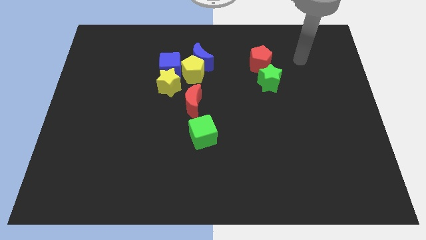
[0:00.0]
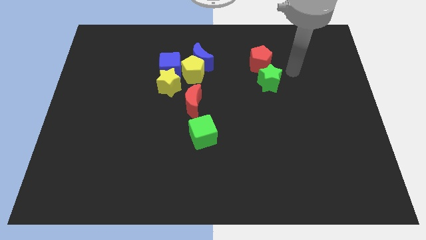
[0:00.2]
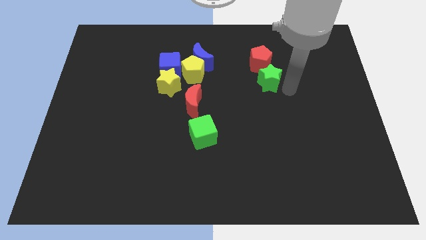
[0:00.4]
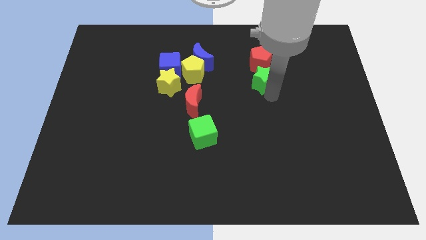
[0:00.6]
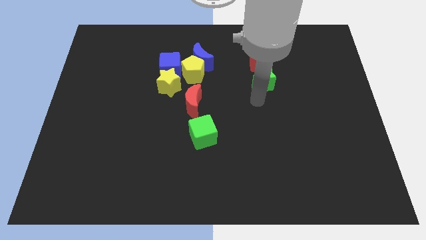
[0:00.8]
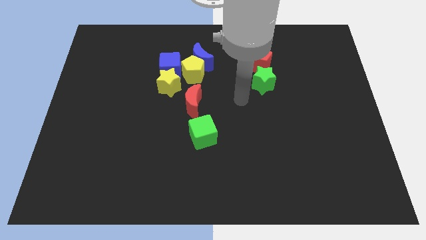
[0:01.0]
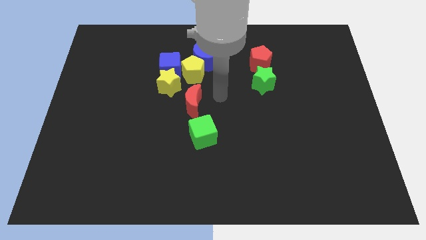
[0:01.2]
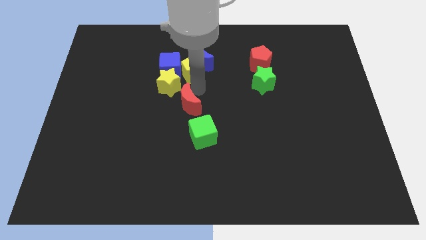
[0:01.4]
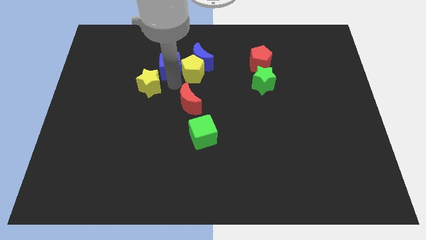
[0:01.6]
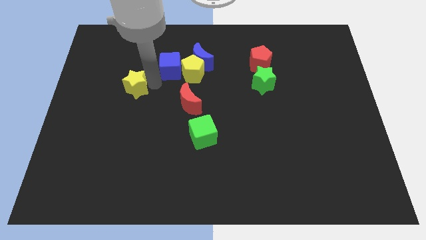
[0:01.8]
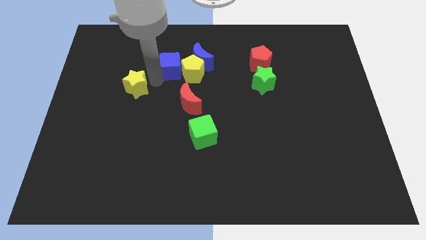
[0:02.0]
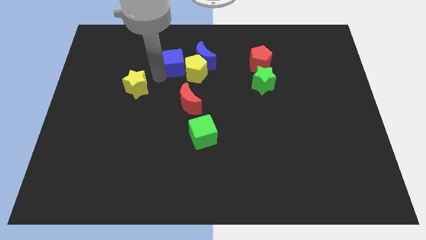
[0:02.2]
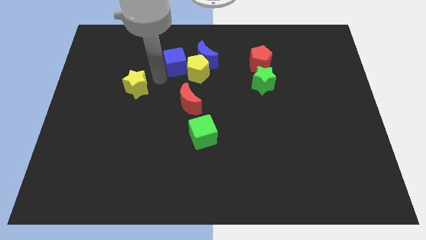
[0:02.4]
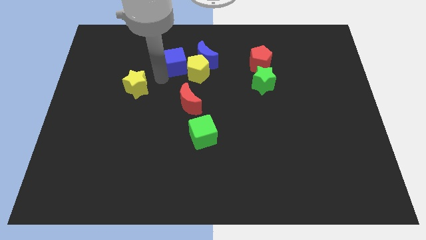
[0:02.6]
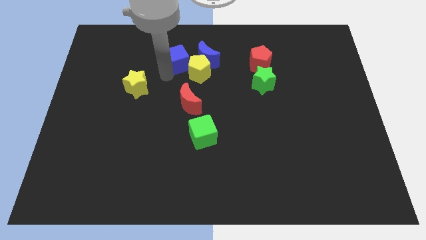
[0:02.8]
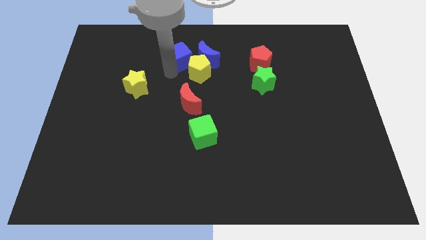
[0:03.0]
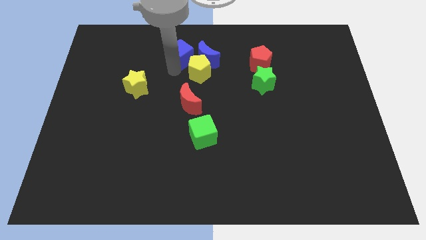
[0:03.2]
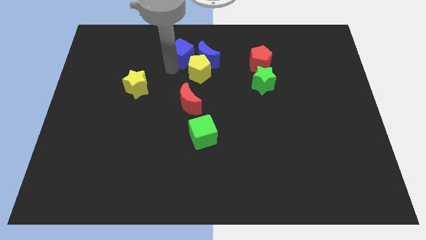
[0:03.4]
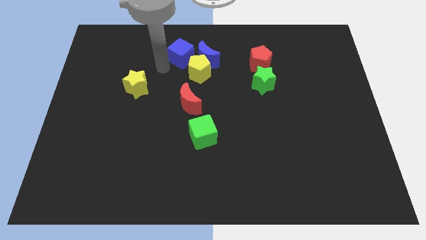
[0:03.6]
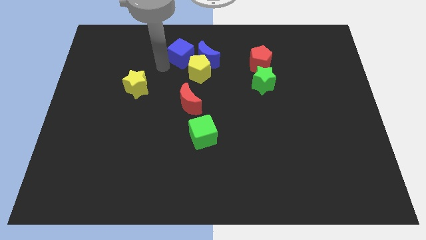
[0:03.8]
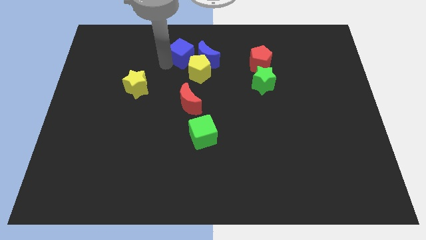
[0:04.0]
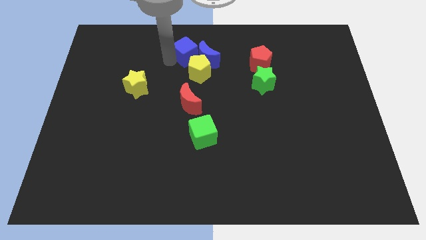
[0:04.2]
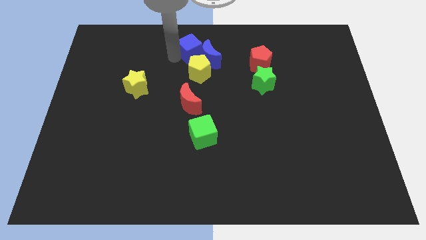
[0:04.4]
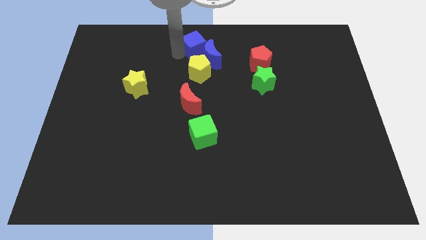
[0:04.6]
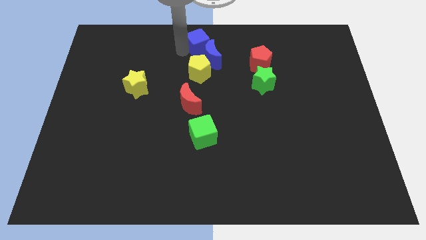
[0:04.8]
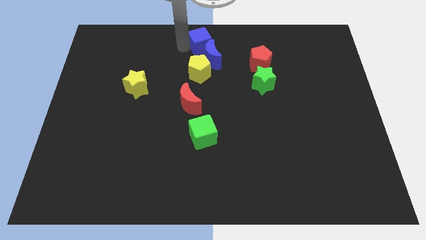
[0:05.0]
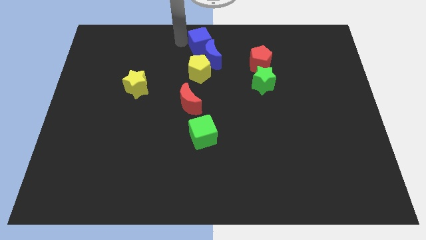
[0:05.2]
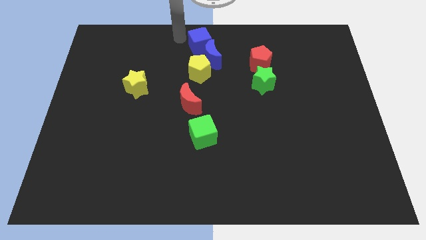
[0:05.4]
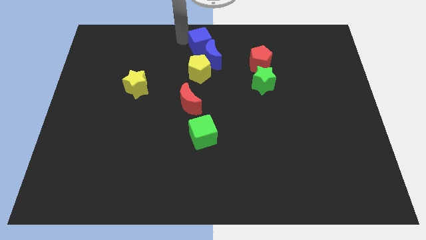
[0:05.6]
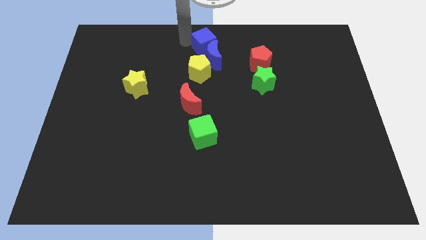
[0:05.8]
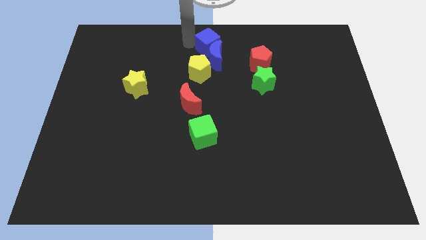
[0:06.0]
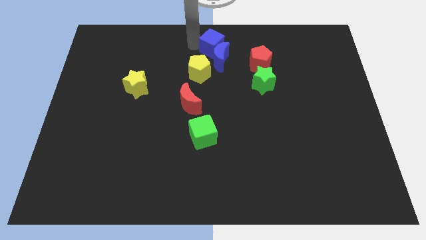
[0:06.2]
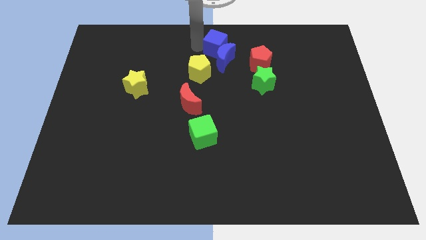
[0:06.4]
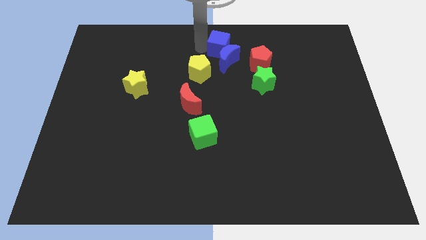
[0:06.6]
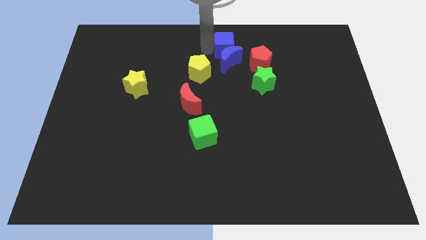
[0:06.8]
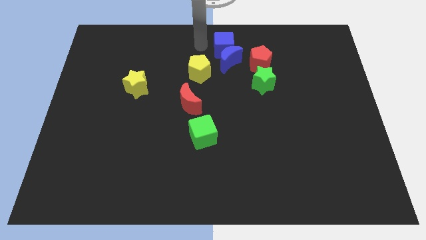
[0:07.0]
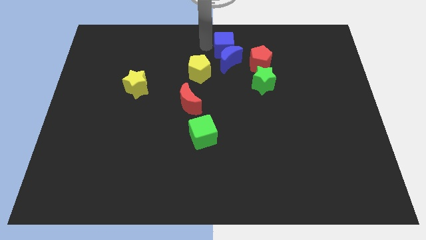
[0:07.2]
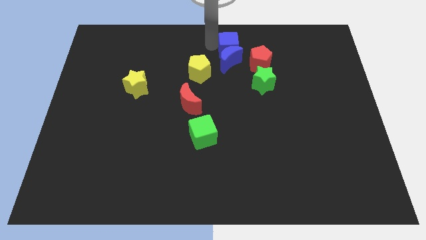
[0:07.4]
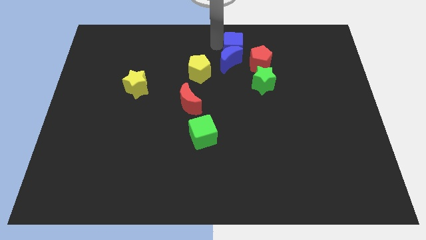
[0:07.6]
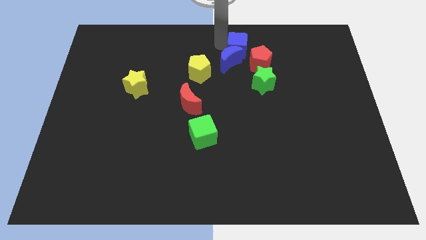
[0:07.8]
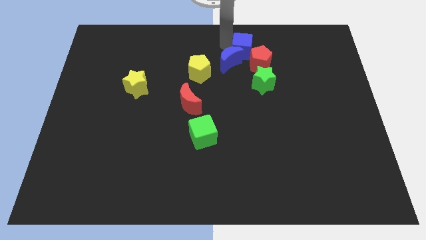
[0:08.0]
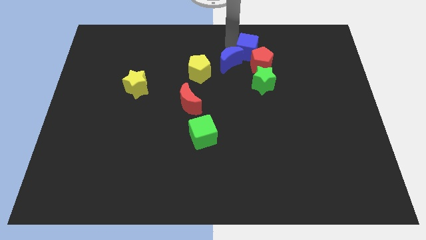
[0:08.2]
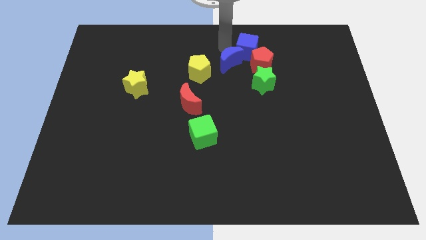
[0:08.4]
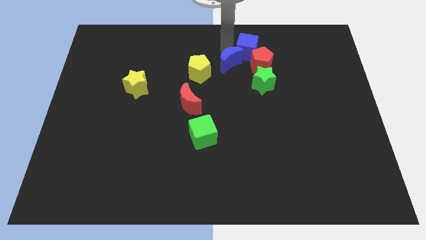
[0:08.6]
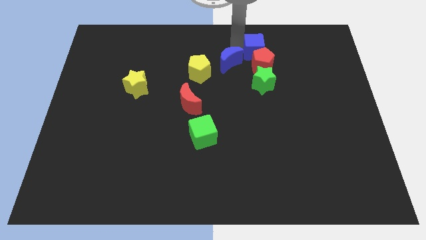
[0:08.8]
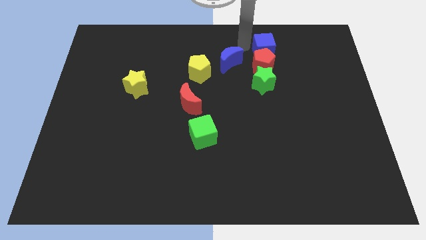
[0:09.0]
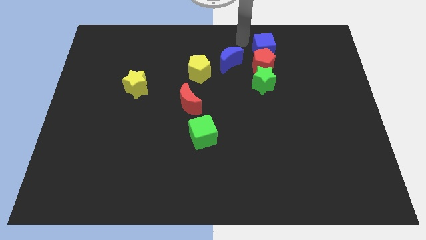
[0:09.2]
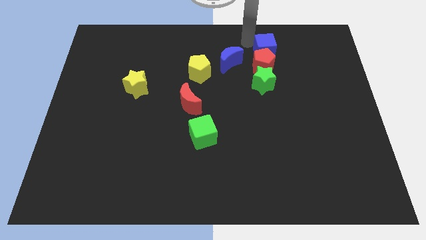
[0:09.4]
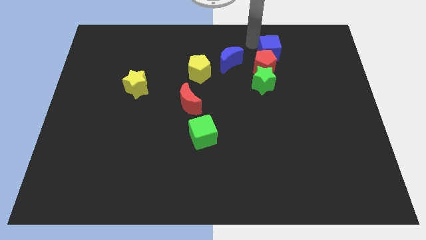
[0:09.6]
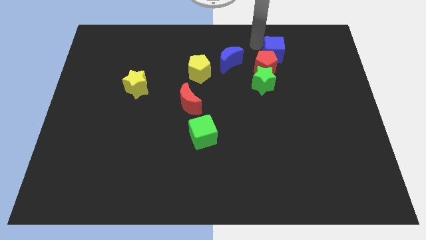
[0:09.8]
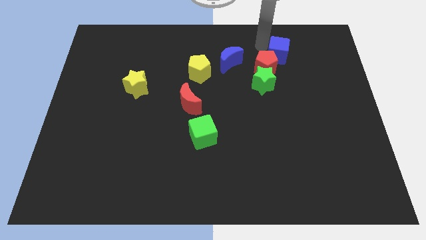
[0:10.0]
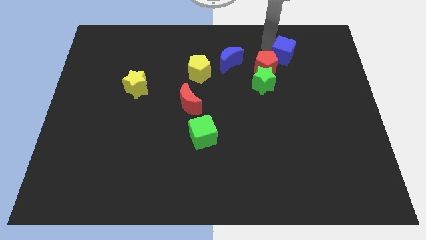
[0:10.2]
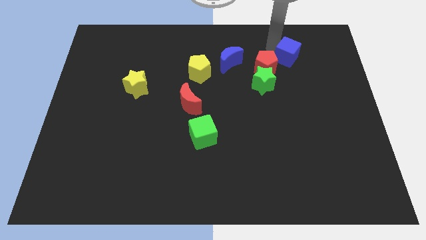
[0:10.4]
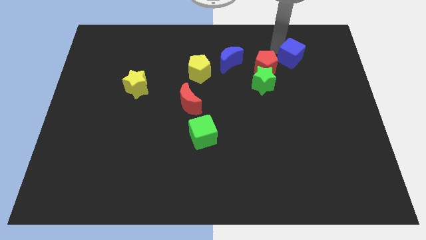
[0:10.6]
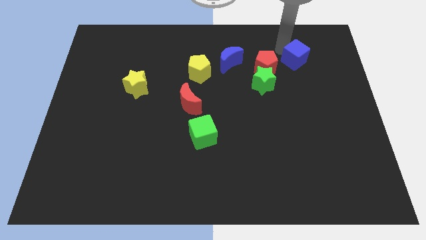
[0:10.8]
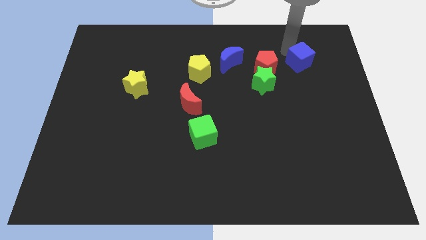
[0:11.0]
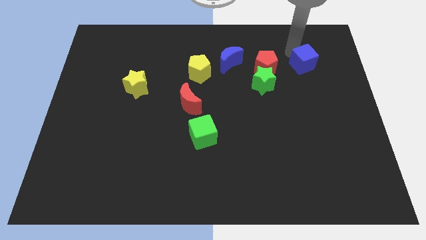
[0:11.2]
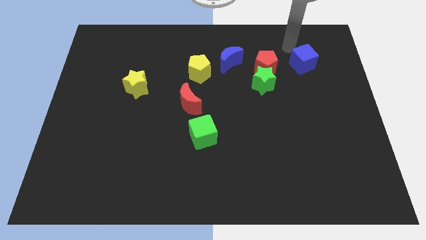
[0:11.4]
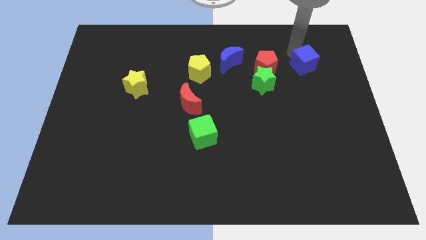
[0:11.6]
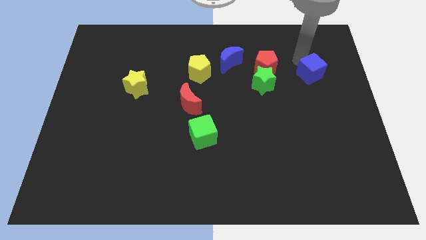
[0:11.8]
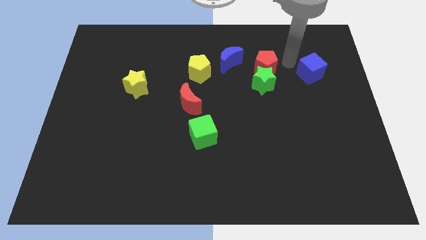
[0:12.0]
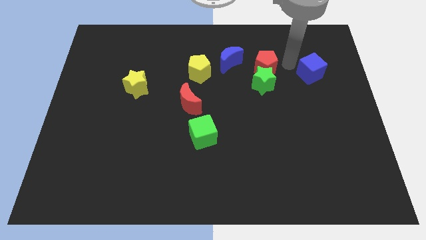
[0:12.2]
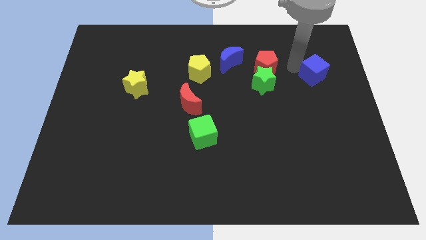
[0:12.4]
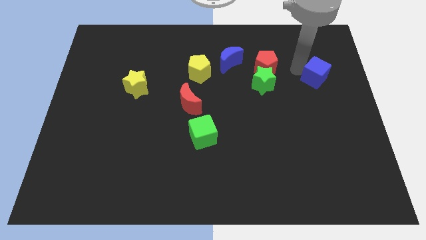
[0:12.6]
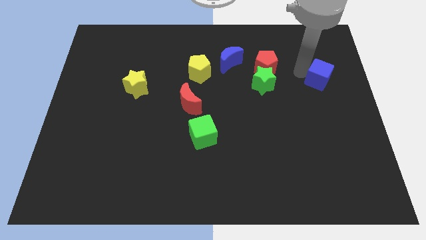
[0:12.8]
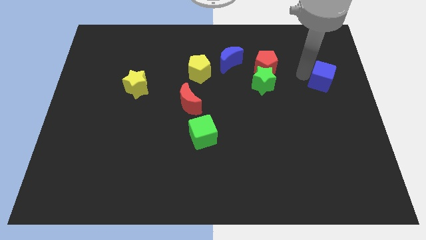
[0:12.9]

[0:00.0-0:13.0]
slide the blue cube to the center right

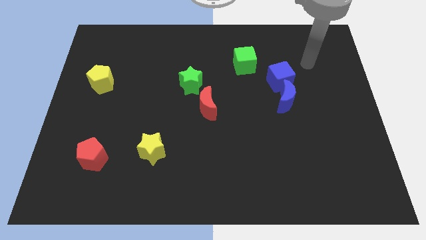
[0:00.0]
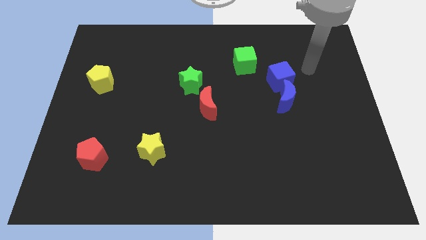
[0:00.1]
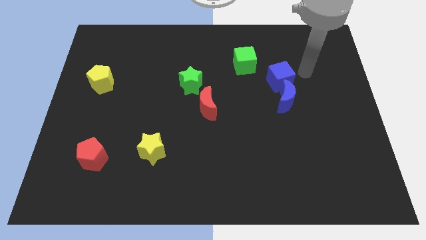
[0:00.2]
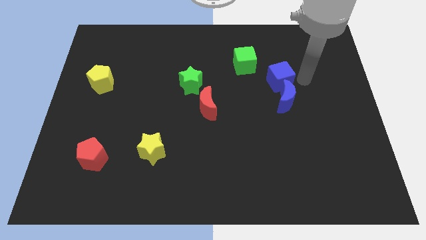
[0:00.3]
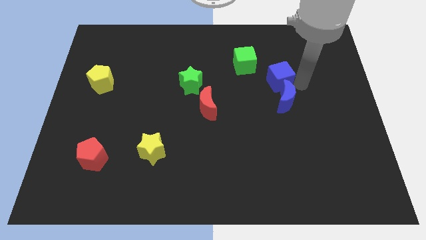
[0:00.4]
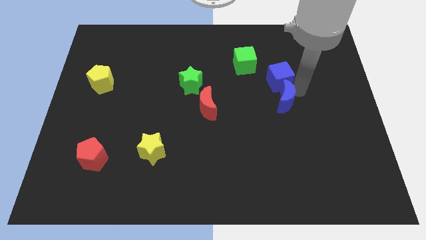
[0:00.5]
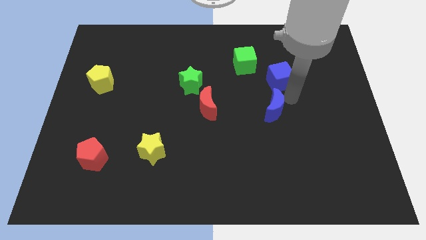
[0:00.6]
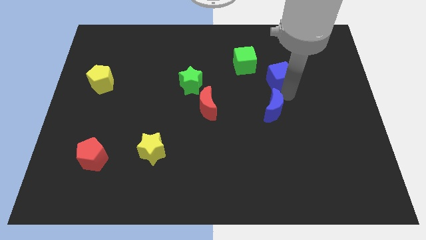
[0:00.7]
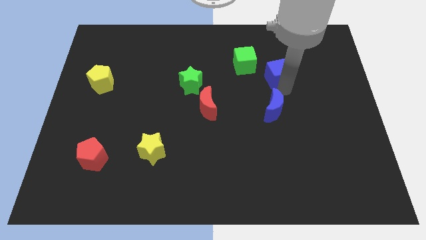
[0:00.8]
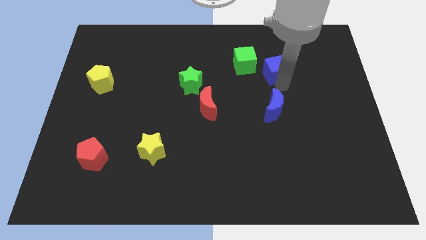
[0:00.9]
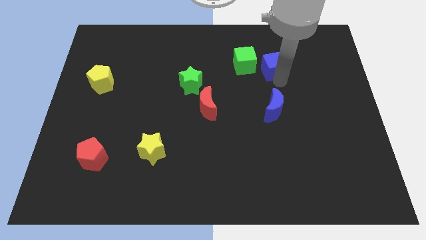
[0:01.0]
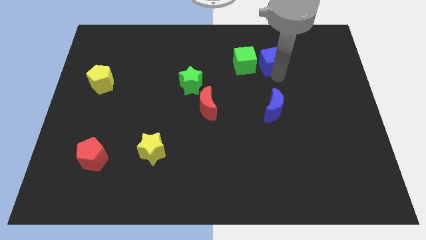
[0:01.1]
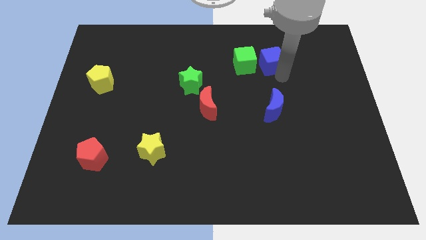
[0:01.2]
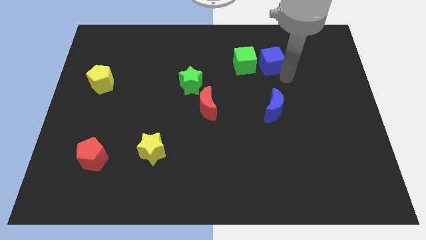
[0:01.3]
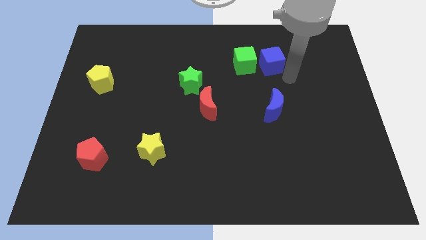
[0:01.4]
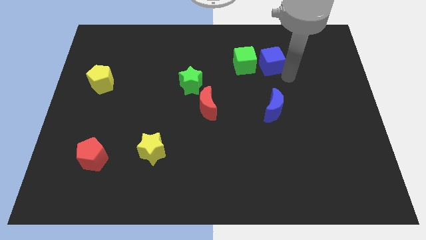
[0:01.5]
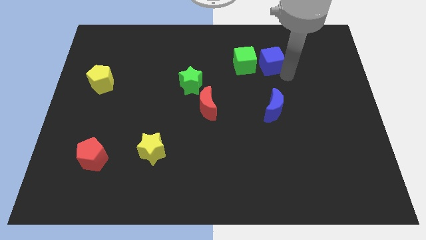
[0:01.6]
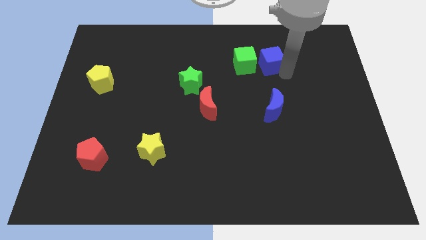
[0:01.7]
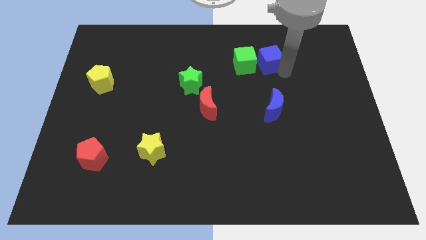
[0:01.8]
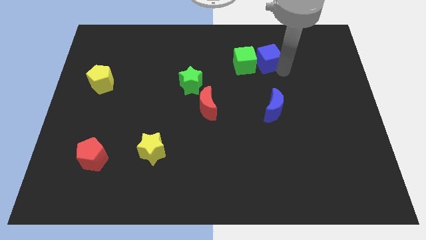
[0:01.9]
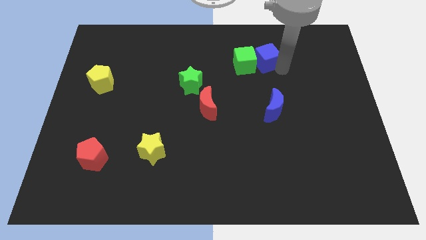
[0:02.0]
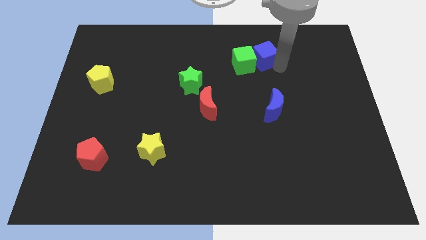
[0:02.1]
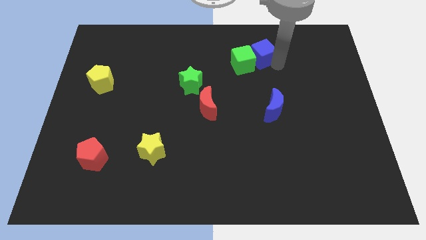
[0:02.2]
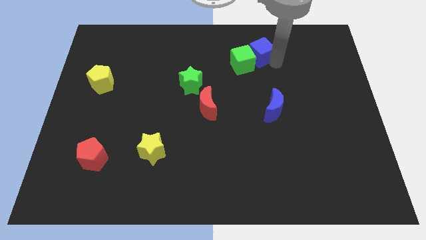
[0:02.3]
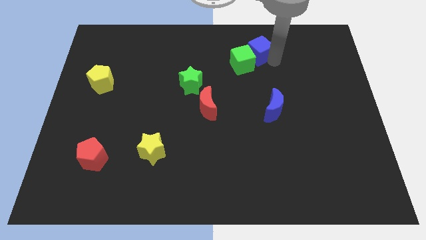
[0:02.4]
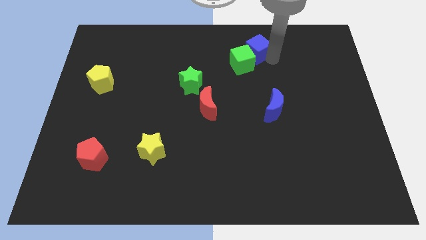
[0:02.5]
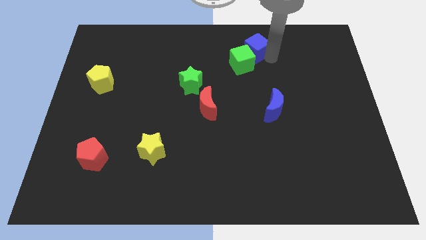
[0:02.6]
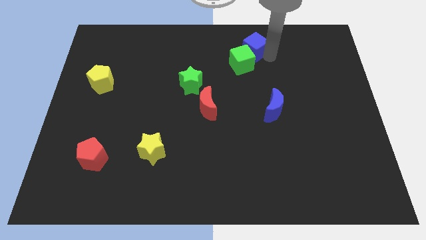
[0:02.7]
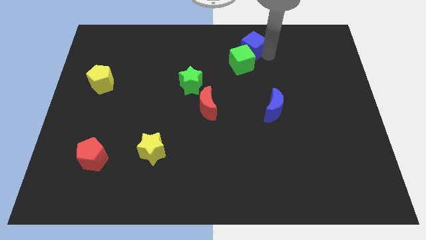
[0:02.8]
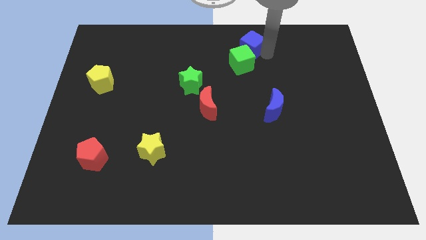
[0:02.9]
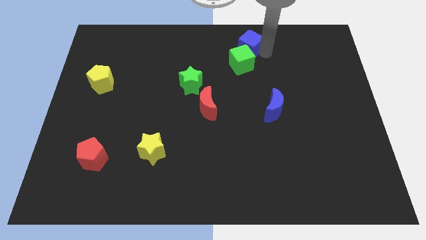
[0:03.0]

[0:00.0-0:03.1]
move the blue cube to the top side
